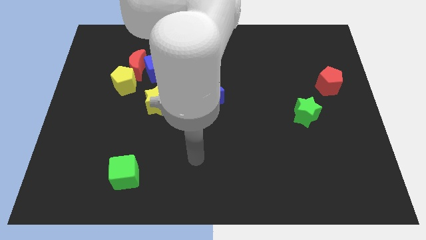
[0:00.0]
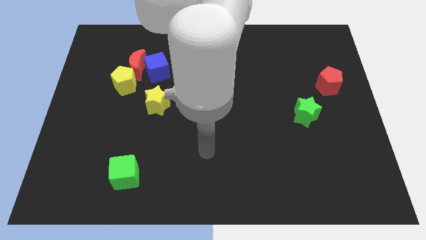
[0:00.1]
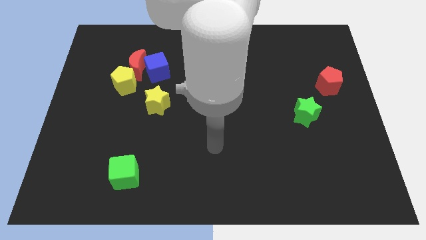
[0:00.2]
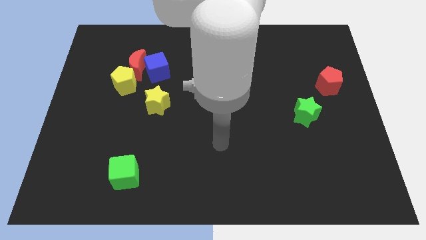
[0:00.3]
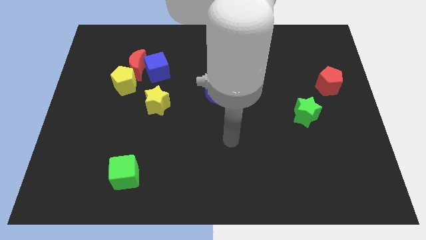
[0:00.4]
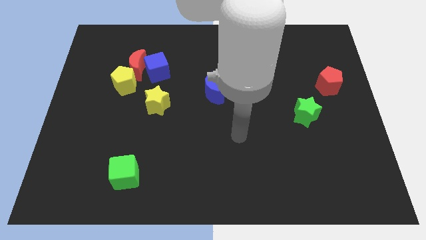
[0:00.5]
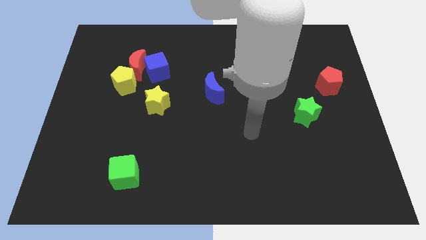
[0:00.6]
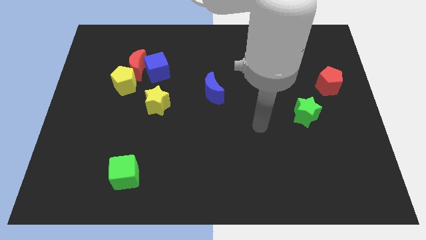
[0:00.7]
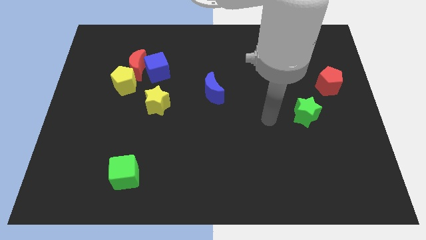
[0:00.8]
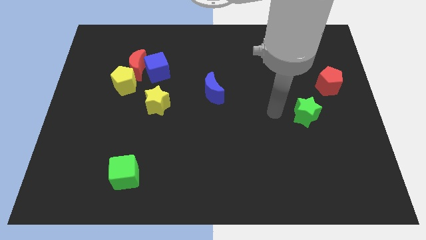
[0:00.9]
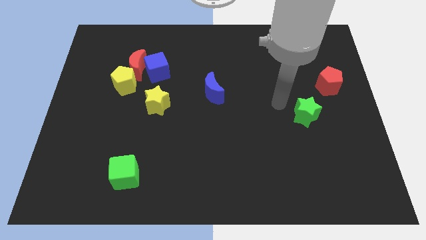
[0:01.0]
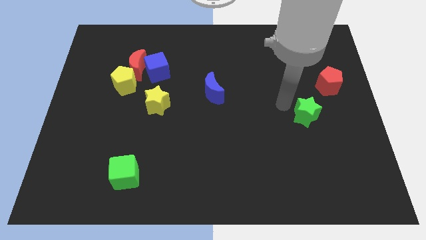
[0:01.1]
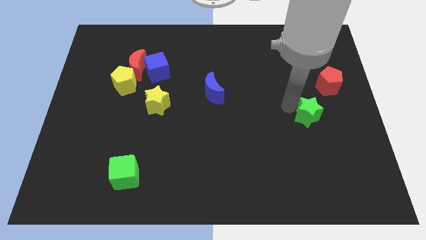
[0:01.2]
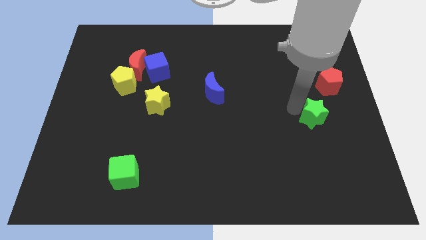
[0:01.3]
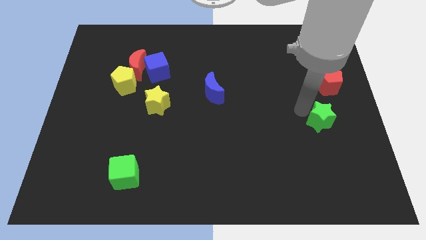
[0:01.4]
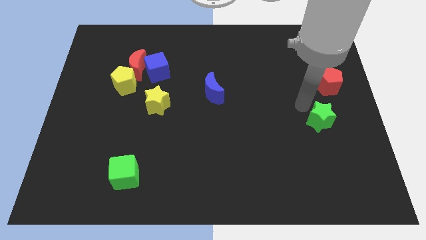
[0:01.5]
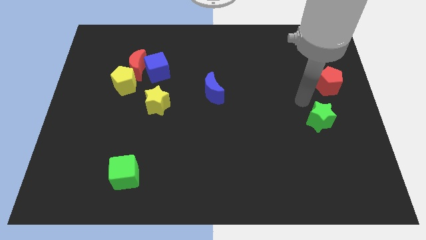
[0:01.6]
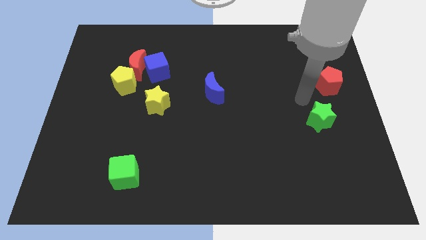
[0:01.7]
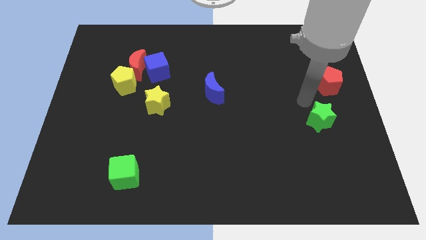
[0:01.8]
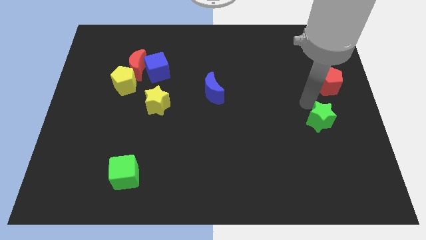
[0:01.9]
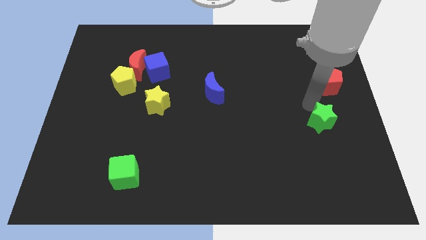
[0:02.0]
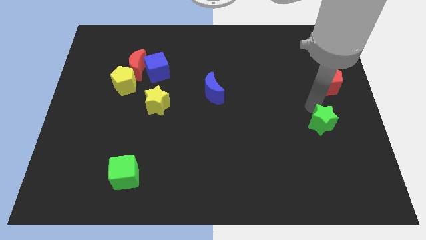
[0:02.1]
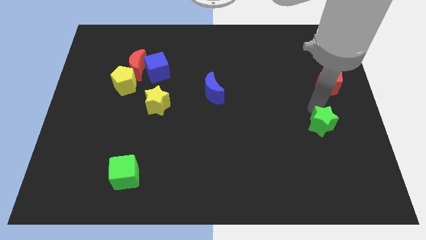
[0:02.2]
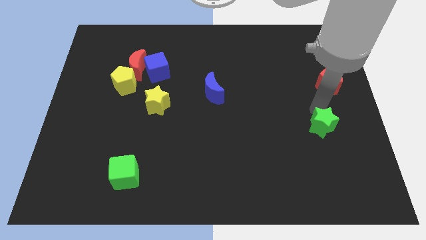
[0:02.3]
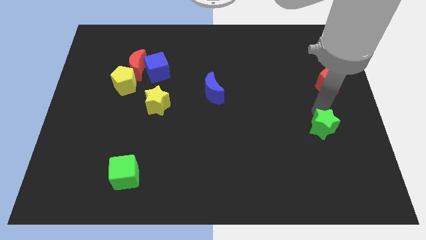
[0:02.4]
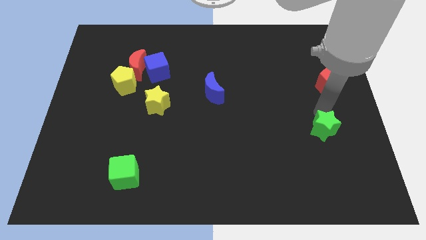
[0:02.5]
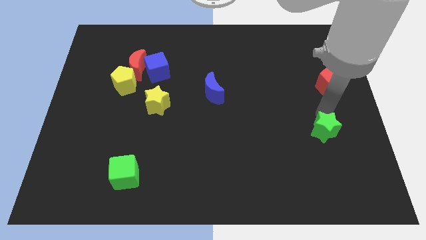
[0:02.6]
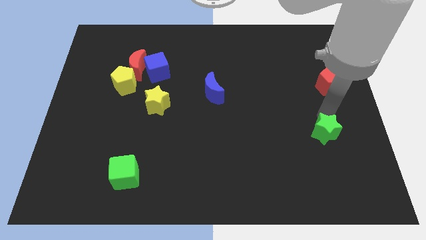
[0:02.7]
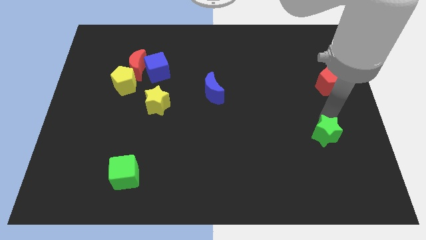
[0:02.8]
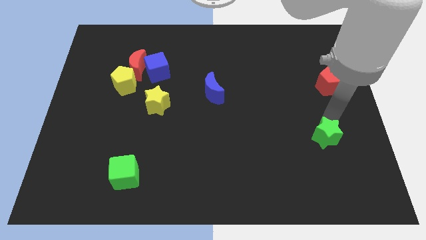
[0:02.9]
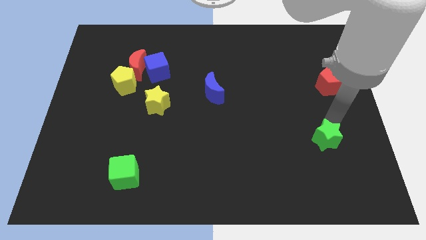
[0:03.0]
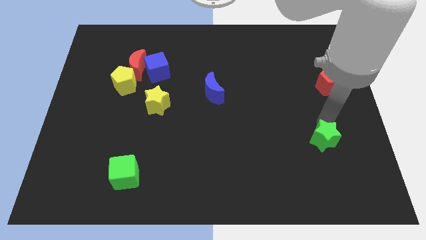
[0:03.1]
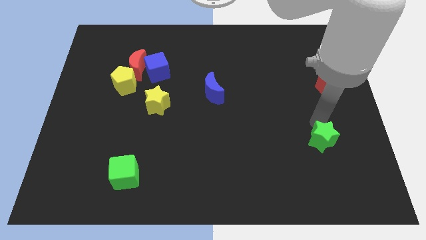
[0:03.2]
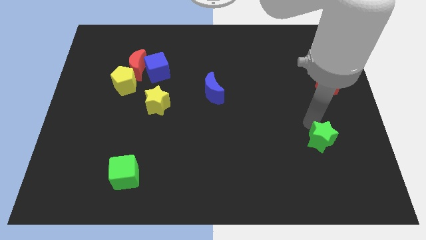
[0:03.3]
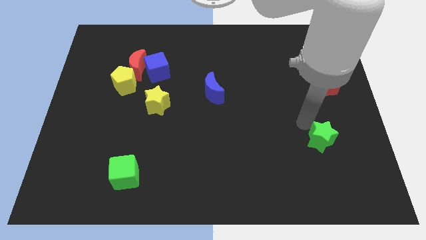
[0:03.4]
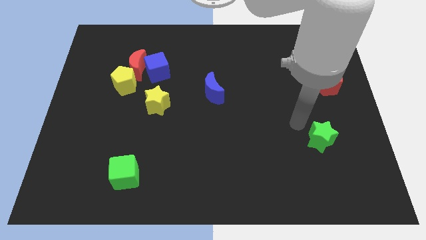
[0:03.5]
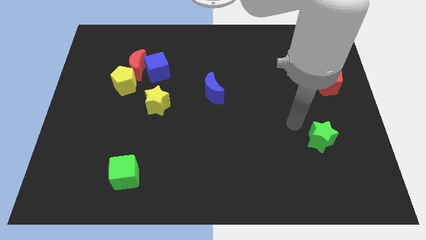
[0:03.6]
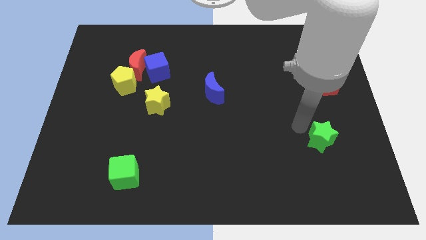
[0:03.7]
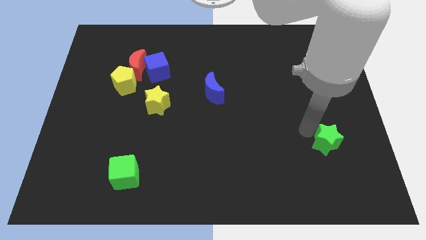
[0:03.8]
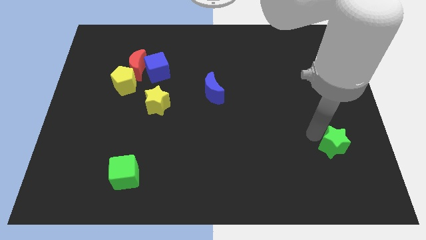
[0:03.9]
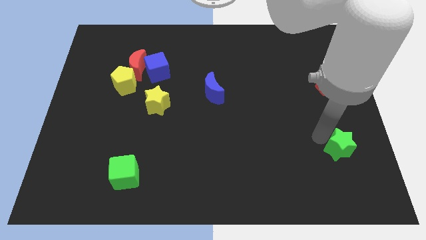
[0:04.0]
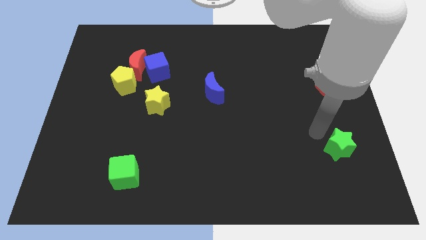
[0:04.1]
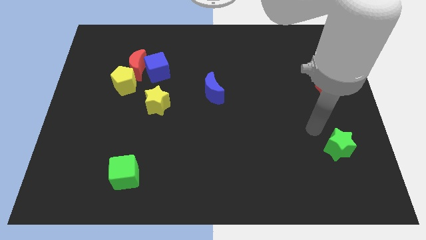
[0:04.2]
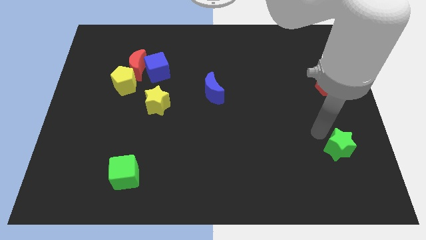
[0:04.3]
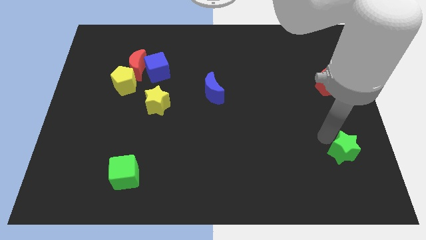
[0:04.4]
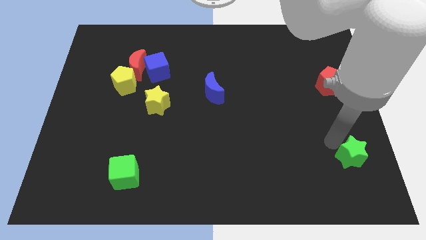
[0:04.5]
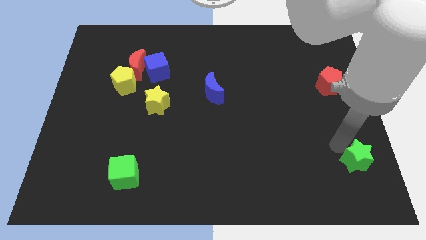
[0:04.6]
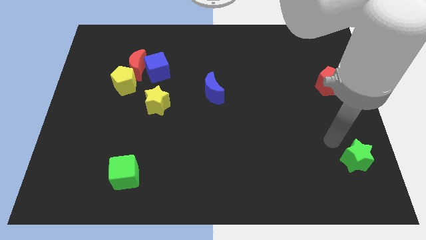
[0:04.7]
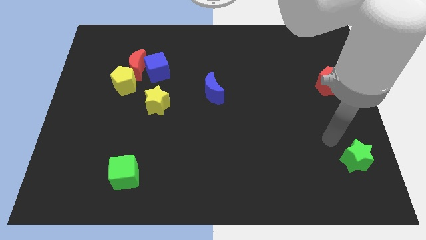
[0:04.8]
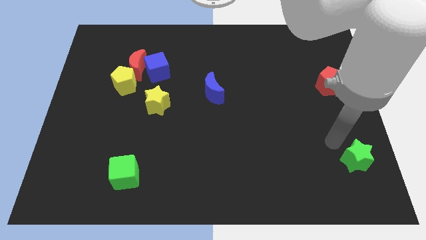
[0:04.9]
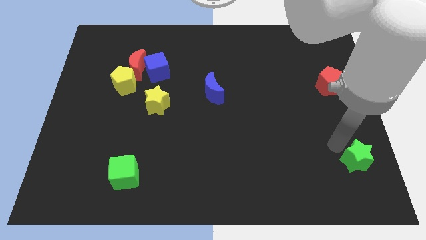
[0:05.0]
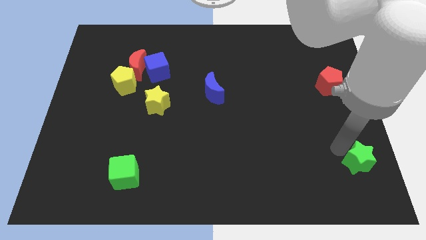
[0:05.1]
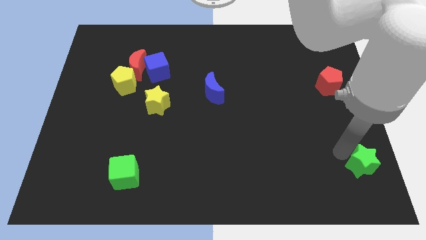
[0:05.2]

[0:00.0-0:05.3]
move the green star to the bottom right corner
